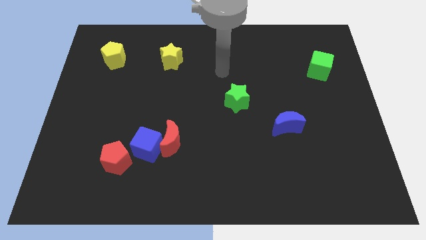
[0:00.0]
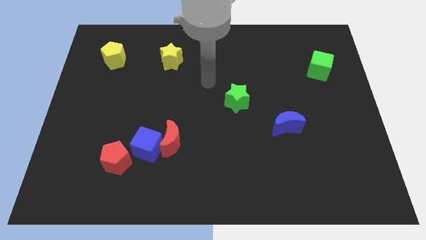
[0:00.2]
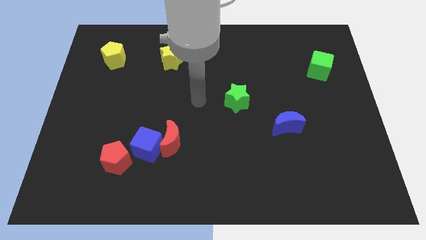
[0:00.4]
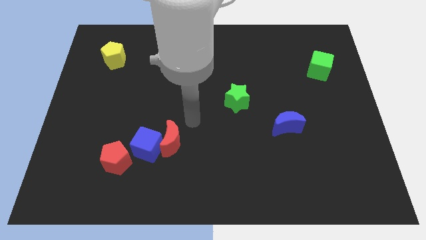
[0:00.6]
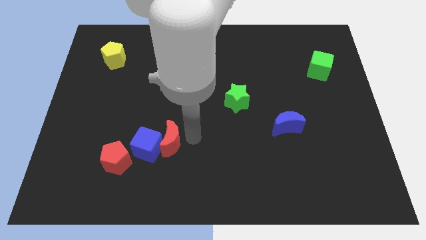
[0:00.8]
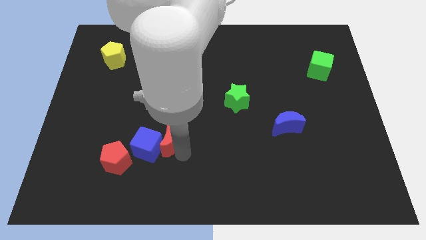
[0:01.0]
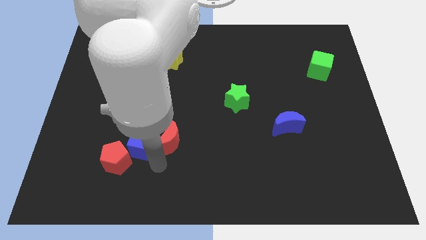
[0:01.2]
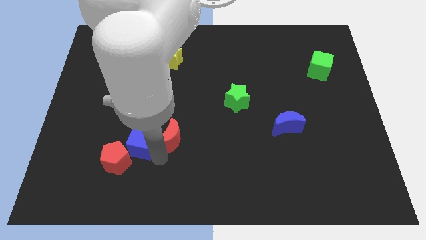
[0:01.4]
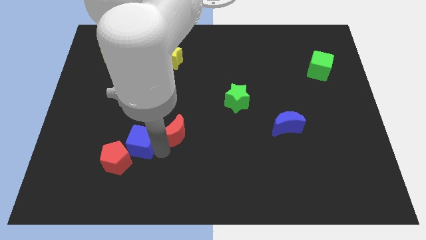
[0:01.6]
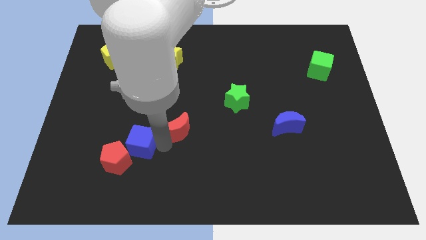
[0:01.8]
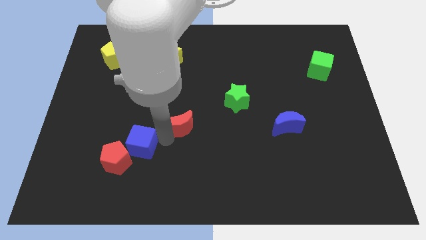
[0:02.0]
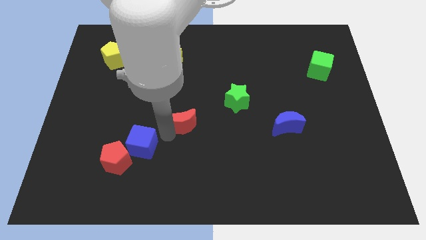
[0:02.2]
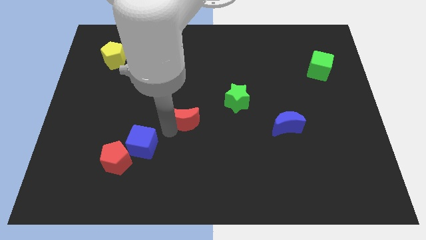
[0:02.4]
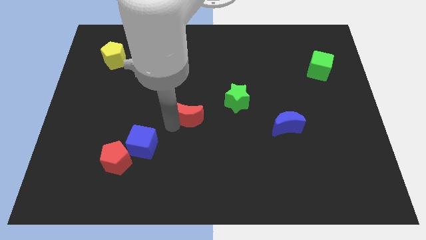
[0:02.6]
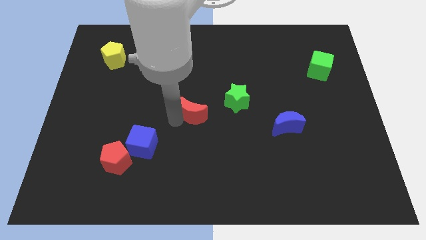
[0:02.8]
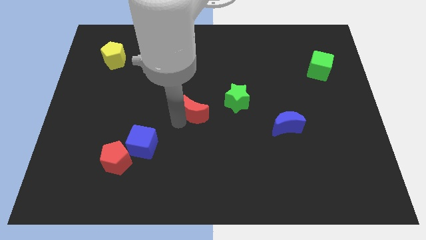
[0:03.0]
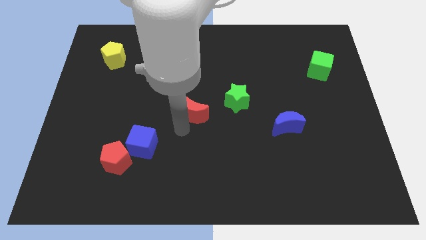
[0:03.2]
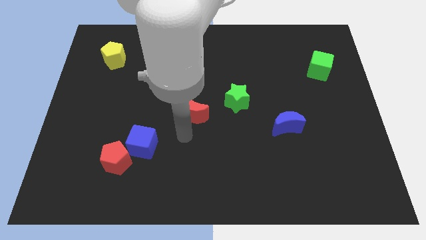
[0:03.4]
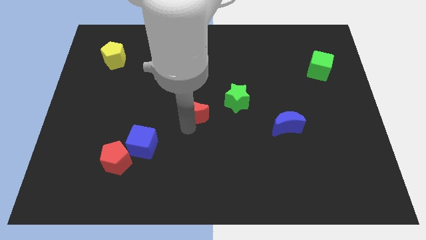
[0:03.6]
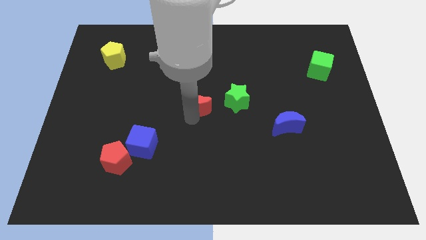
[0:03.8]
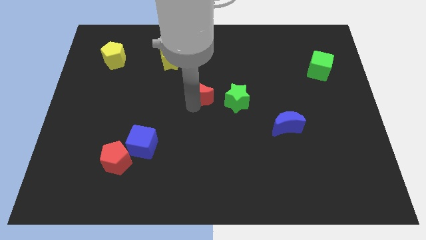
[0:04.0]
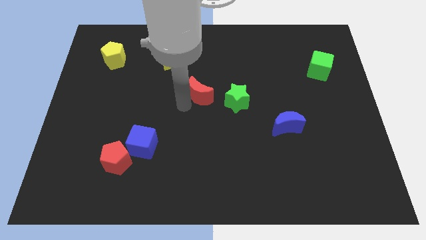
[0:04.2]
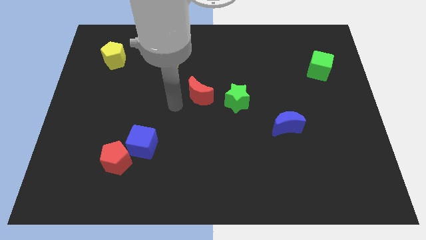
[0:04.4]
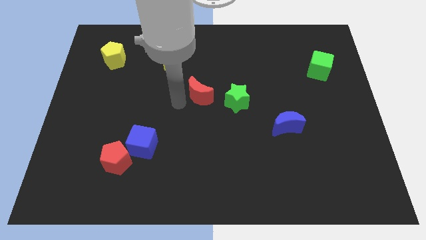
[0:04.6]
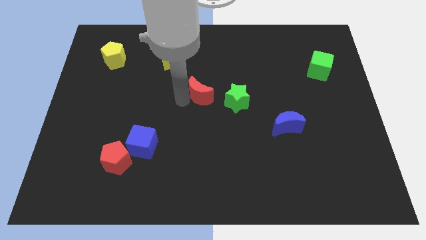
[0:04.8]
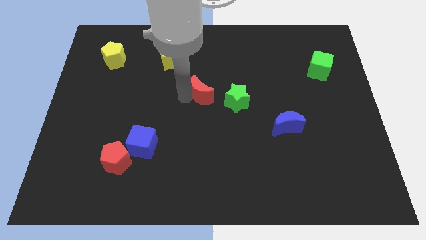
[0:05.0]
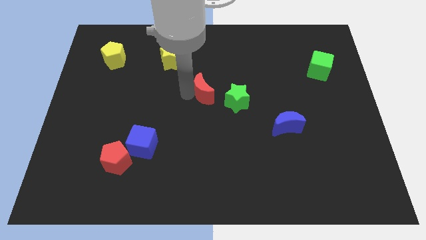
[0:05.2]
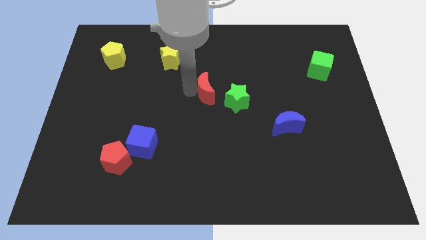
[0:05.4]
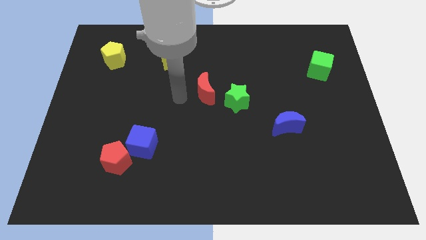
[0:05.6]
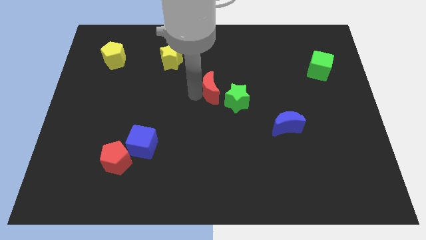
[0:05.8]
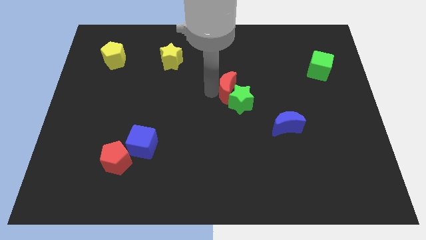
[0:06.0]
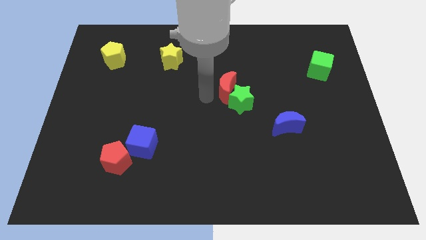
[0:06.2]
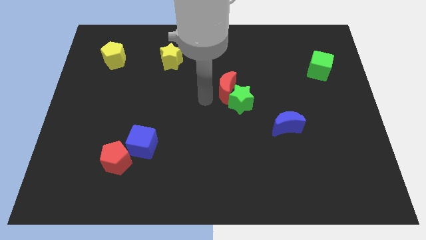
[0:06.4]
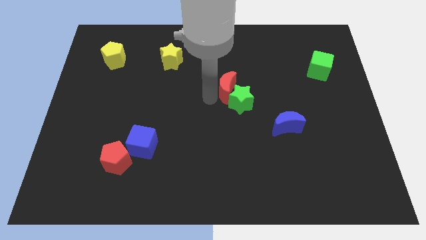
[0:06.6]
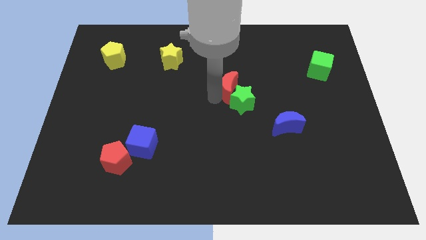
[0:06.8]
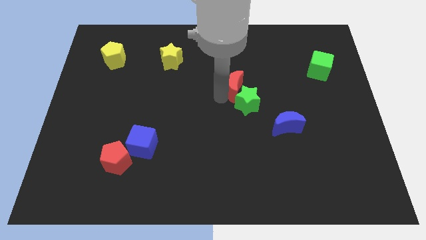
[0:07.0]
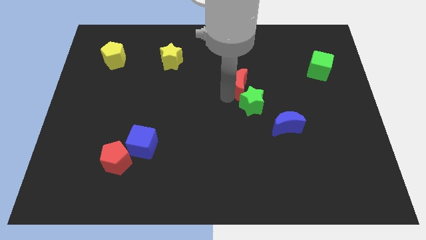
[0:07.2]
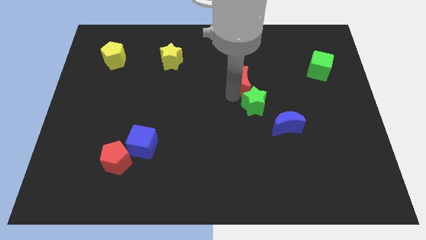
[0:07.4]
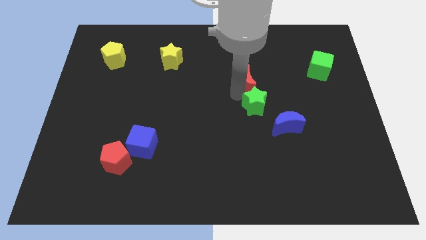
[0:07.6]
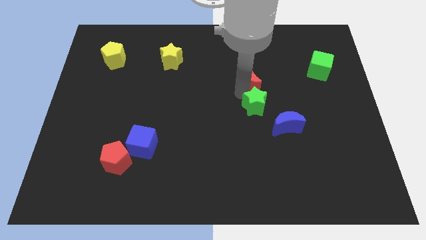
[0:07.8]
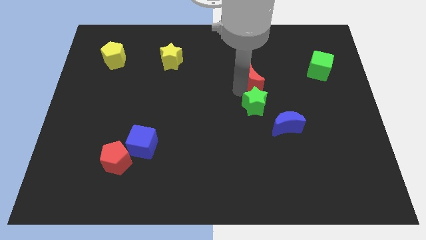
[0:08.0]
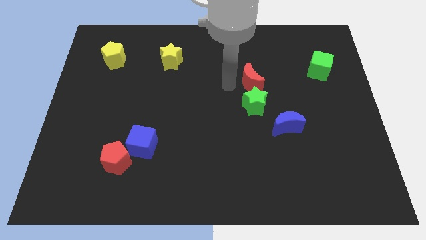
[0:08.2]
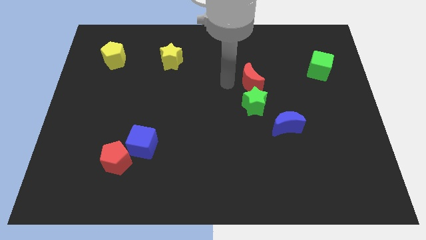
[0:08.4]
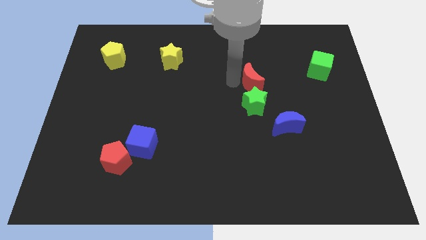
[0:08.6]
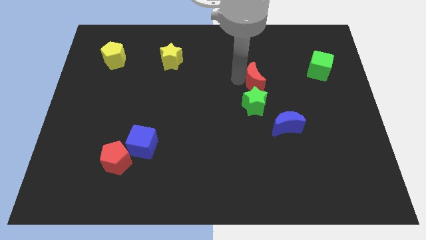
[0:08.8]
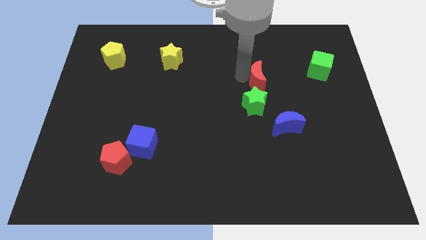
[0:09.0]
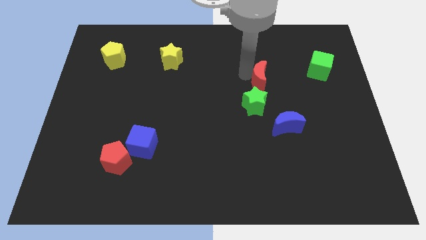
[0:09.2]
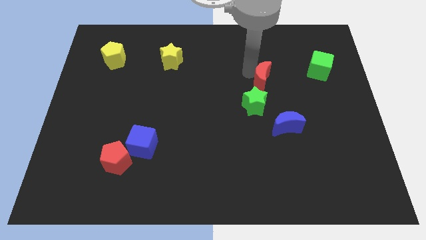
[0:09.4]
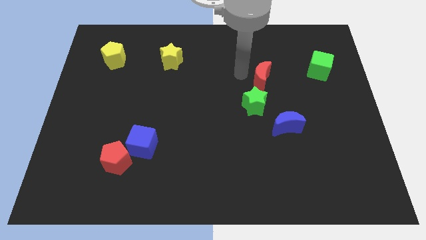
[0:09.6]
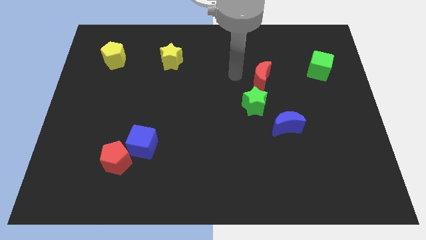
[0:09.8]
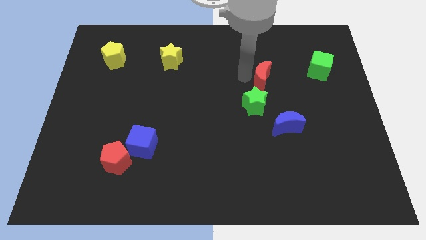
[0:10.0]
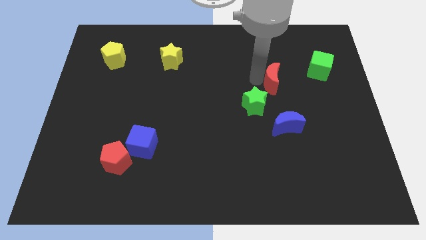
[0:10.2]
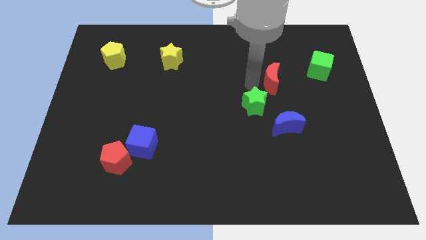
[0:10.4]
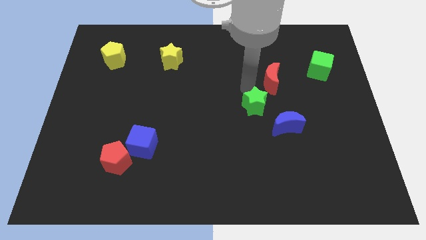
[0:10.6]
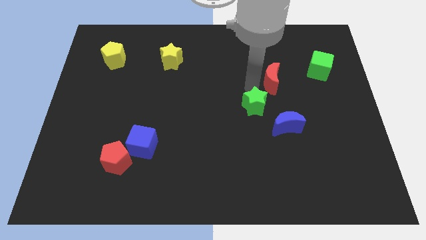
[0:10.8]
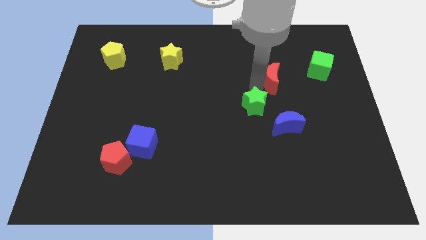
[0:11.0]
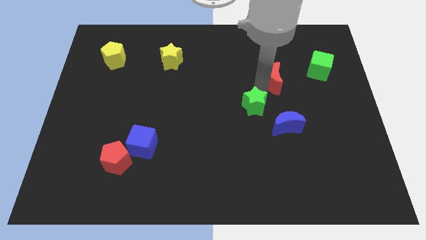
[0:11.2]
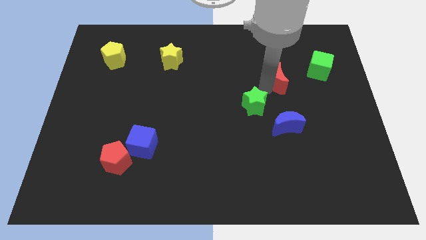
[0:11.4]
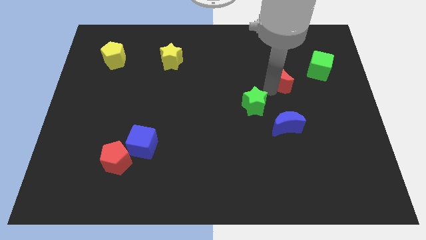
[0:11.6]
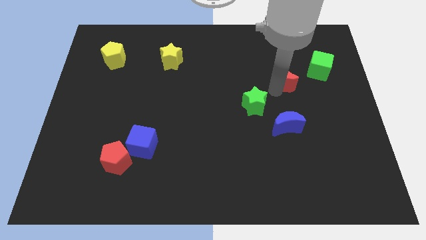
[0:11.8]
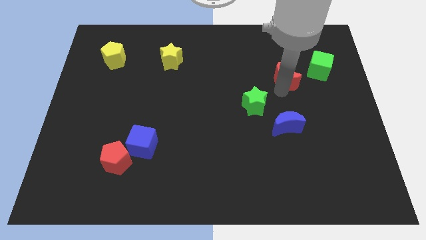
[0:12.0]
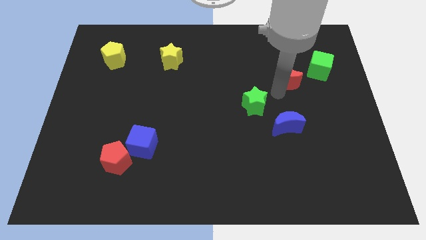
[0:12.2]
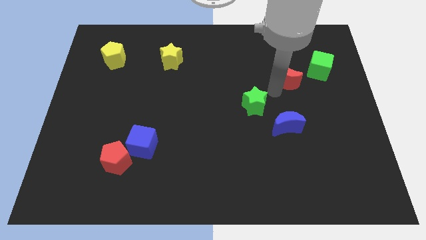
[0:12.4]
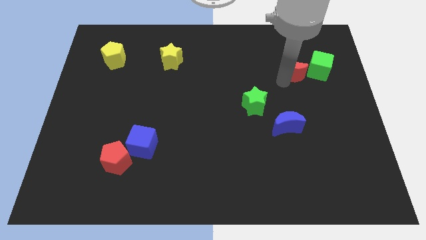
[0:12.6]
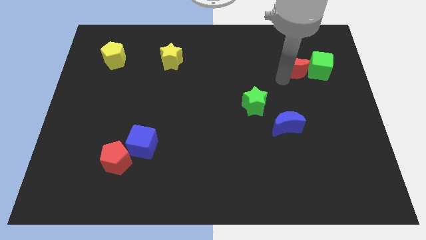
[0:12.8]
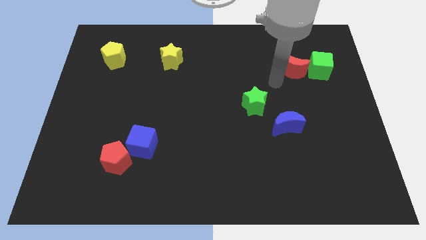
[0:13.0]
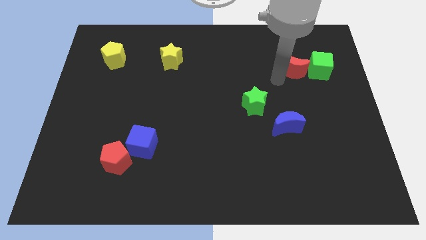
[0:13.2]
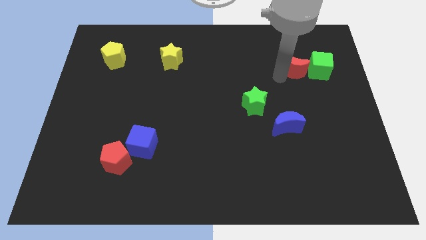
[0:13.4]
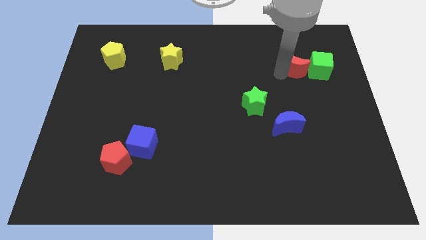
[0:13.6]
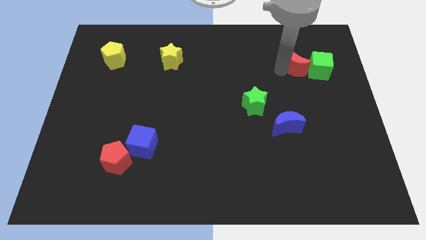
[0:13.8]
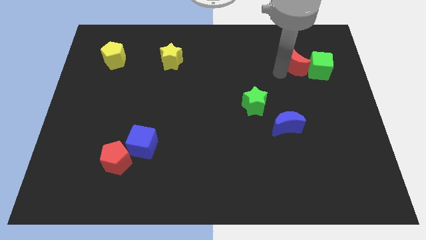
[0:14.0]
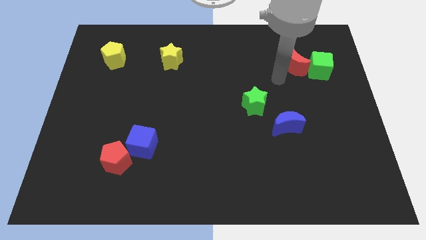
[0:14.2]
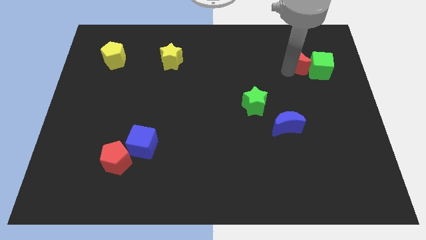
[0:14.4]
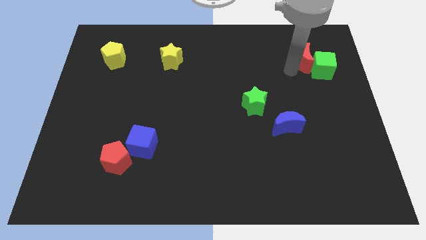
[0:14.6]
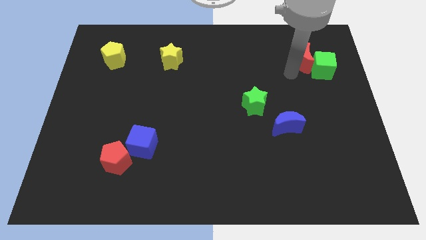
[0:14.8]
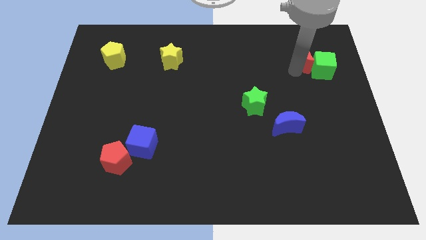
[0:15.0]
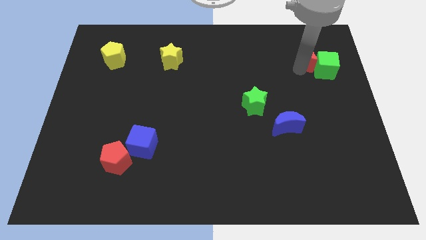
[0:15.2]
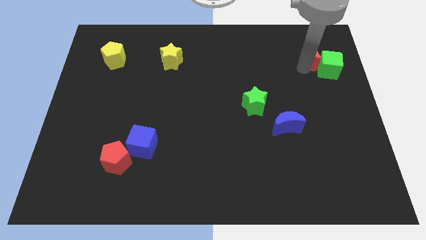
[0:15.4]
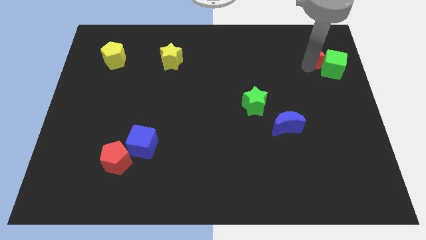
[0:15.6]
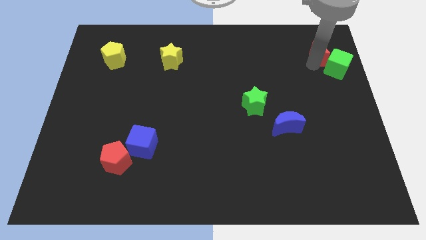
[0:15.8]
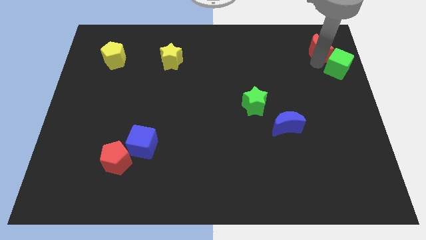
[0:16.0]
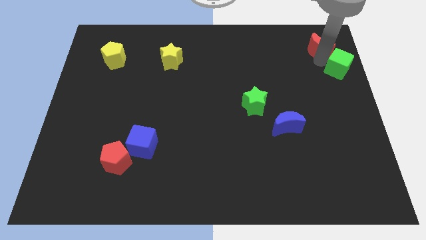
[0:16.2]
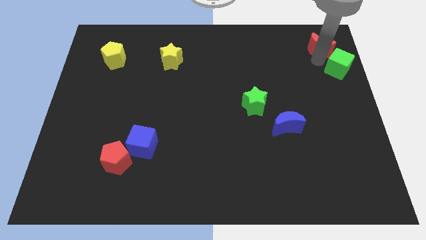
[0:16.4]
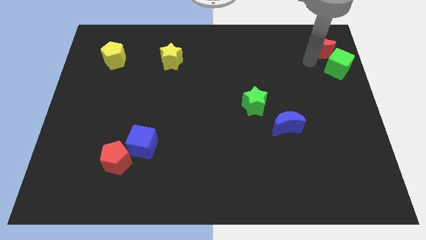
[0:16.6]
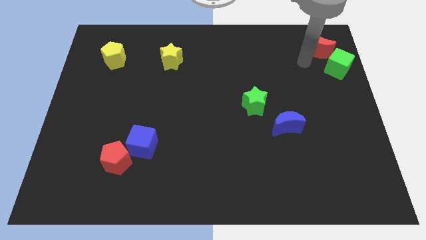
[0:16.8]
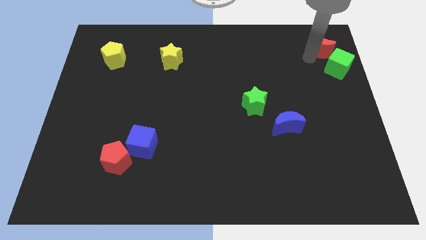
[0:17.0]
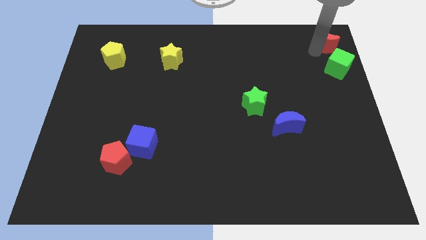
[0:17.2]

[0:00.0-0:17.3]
slide the red moon to the top right corner
